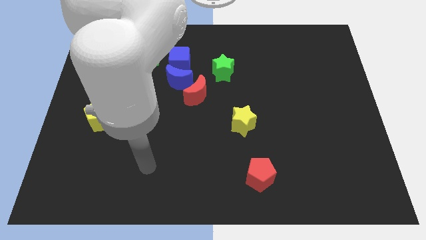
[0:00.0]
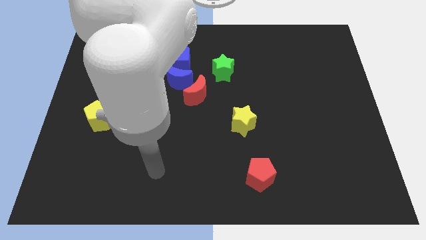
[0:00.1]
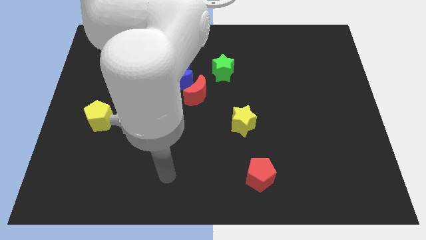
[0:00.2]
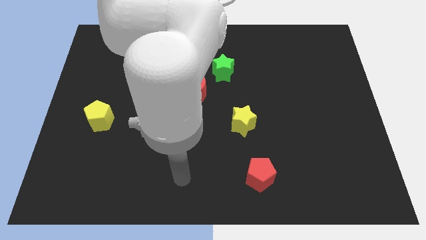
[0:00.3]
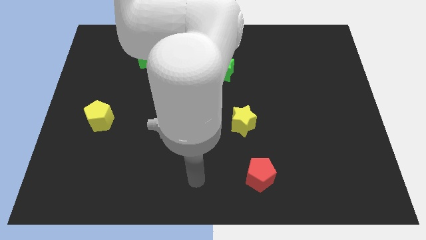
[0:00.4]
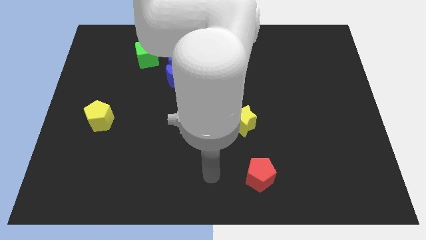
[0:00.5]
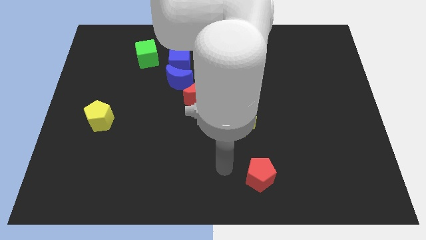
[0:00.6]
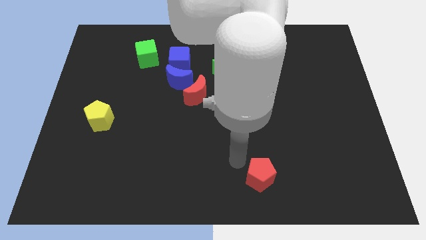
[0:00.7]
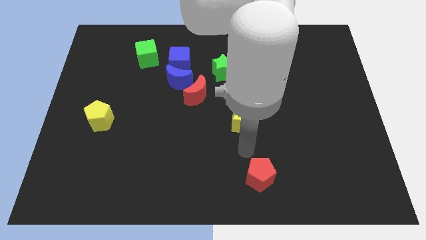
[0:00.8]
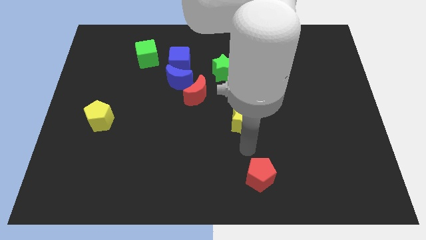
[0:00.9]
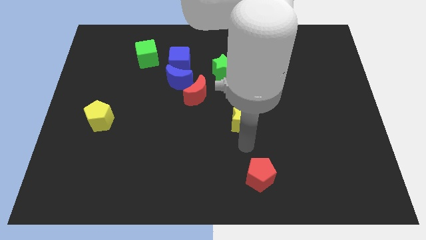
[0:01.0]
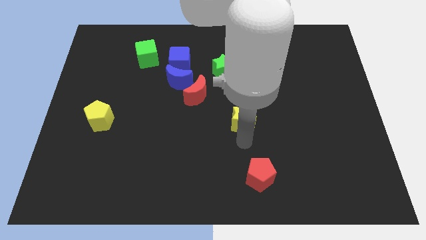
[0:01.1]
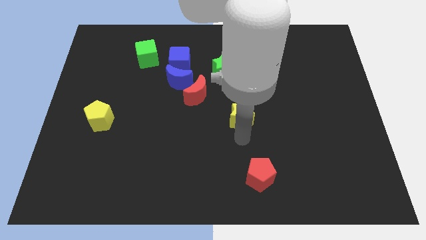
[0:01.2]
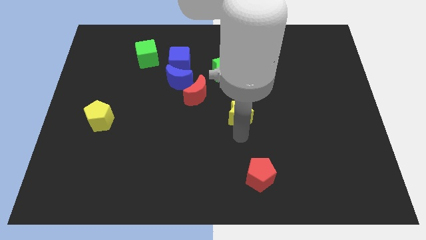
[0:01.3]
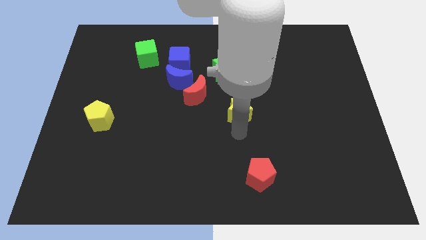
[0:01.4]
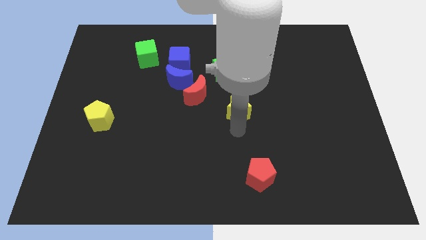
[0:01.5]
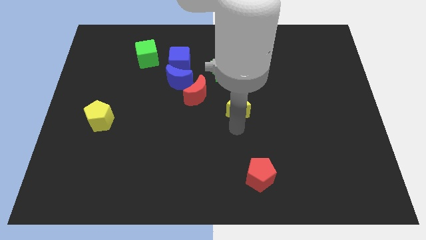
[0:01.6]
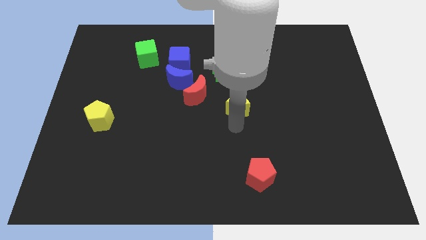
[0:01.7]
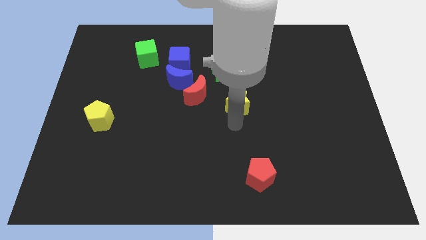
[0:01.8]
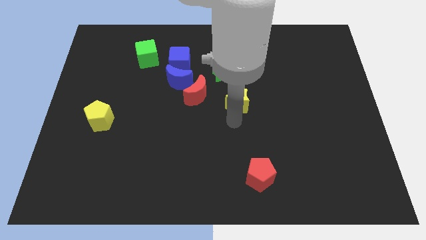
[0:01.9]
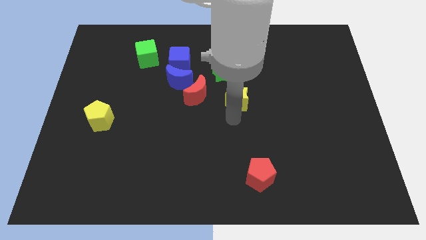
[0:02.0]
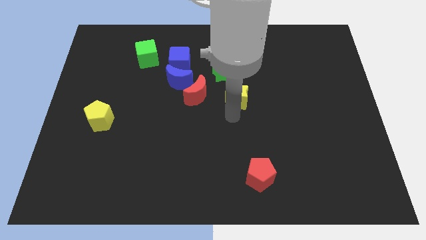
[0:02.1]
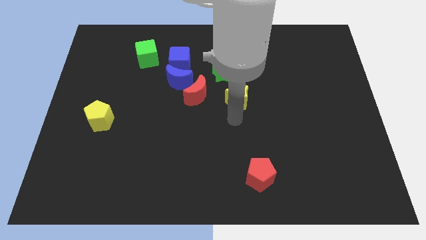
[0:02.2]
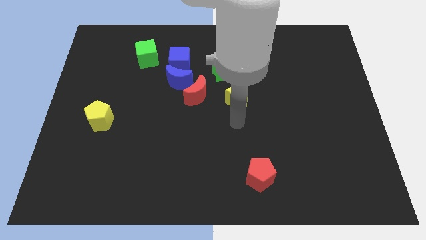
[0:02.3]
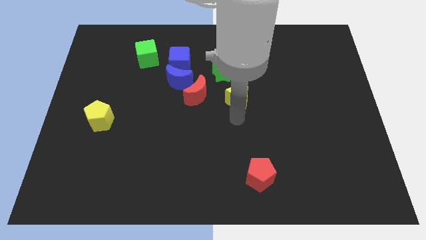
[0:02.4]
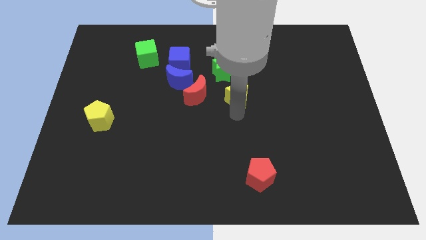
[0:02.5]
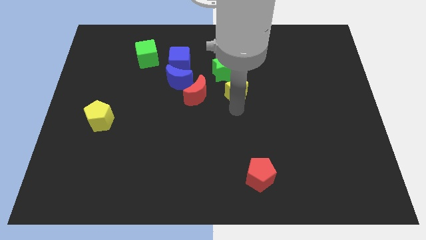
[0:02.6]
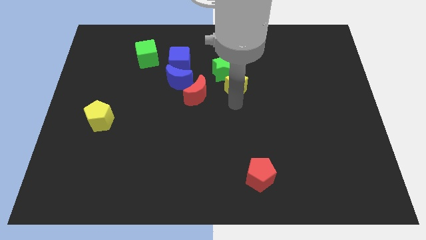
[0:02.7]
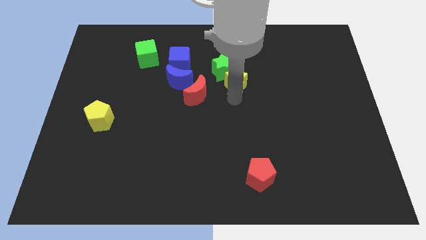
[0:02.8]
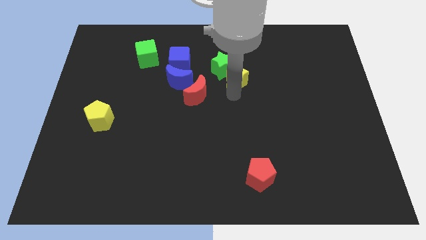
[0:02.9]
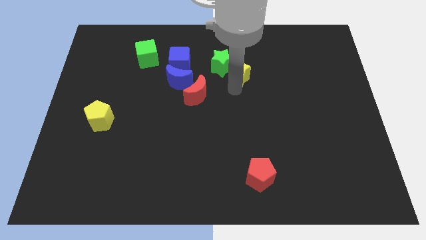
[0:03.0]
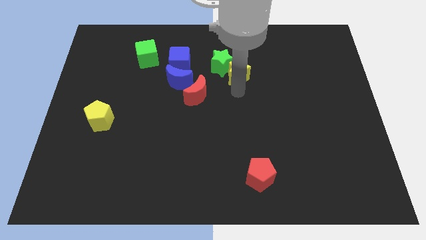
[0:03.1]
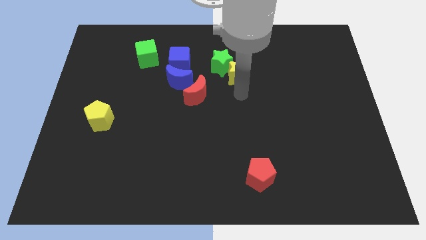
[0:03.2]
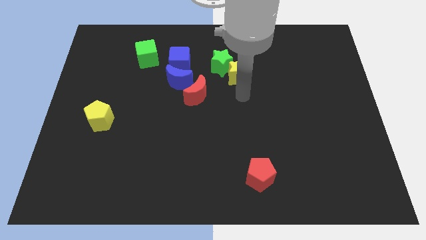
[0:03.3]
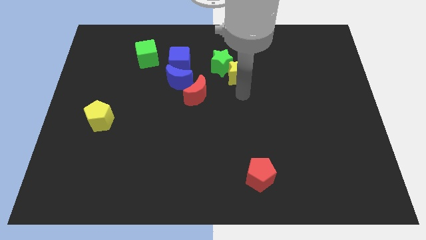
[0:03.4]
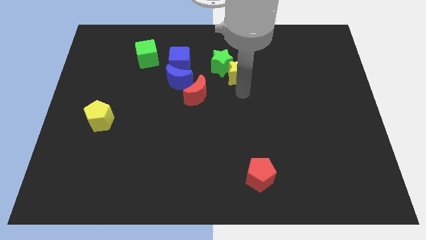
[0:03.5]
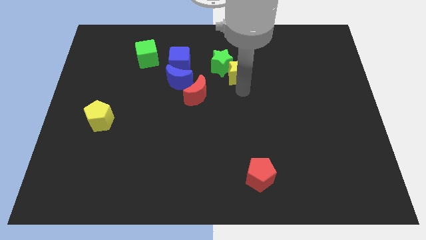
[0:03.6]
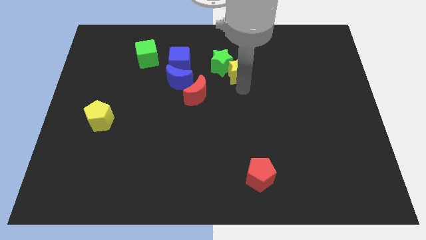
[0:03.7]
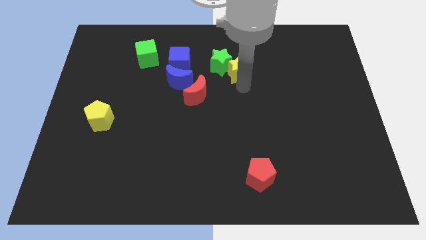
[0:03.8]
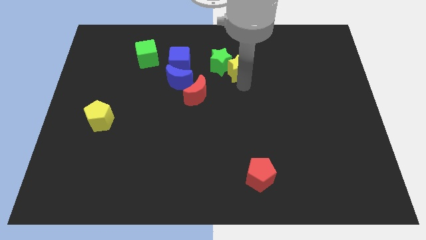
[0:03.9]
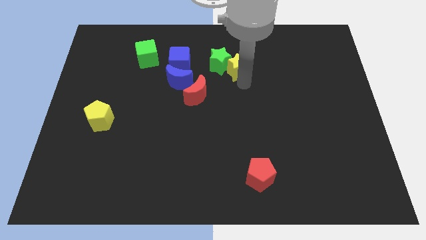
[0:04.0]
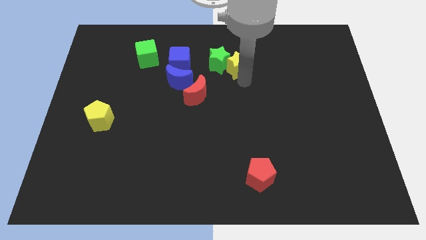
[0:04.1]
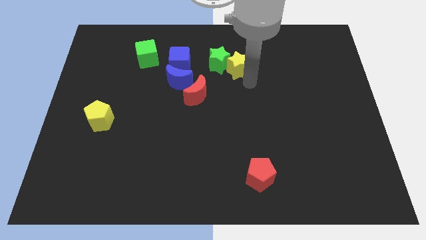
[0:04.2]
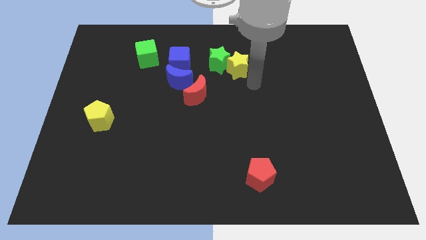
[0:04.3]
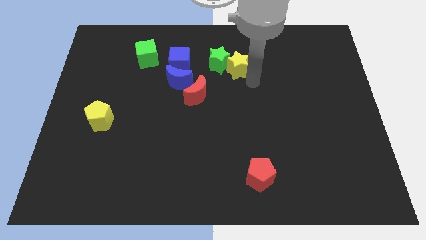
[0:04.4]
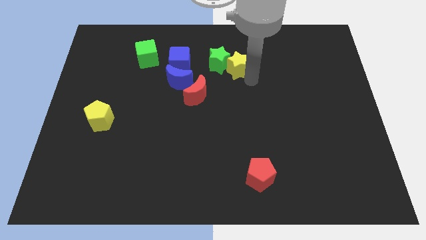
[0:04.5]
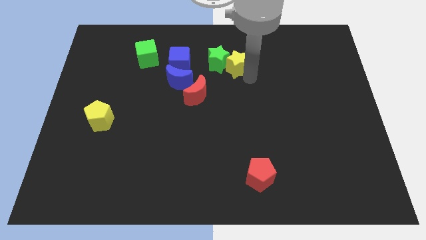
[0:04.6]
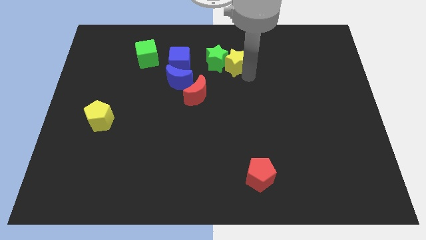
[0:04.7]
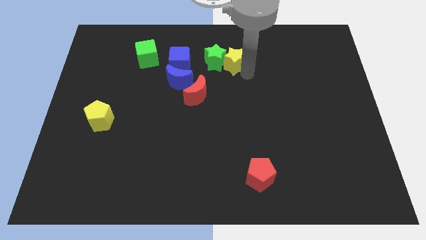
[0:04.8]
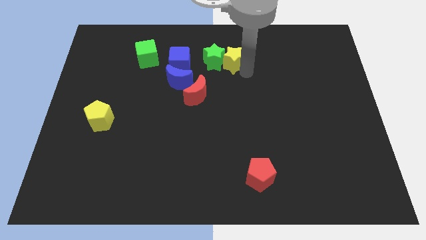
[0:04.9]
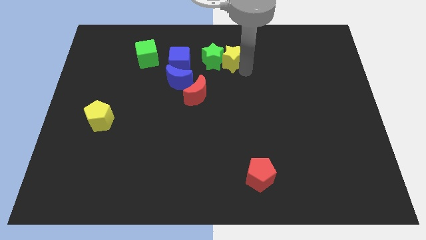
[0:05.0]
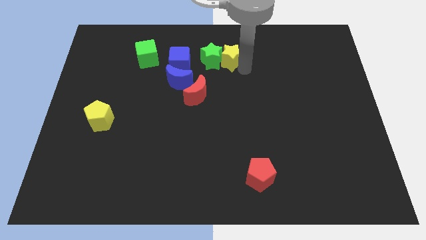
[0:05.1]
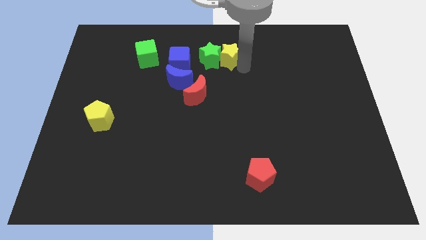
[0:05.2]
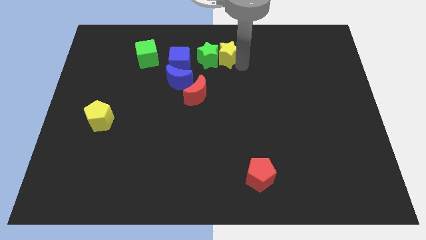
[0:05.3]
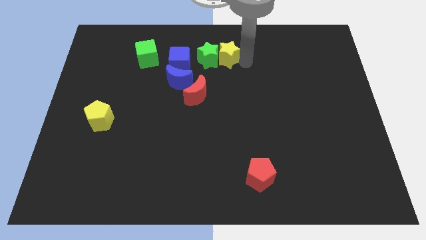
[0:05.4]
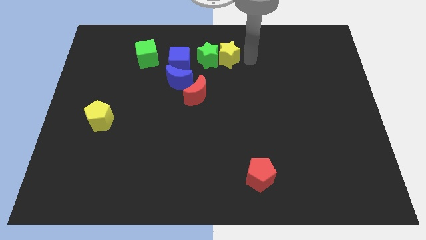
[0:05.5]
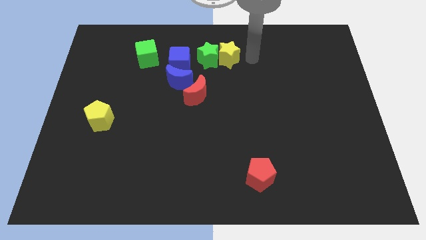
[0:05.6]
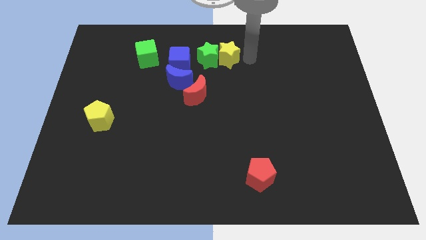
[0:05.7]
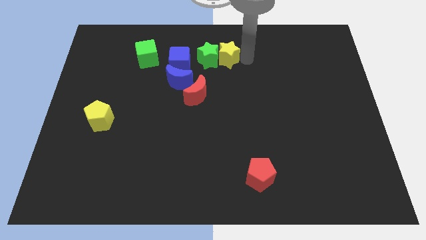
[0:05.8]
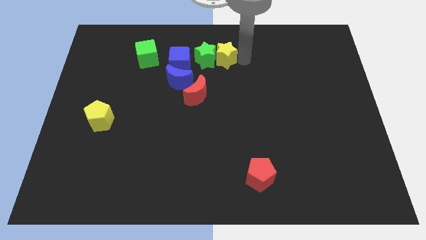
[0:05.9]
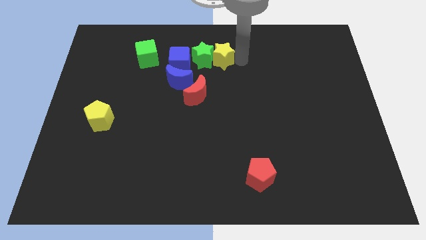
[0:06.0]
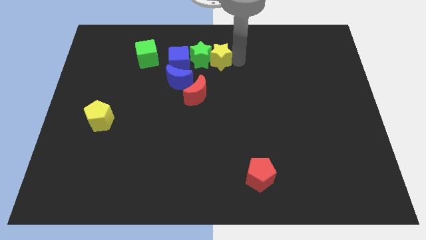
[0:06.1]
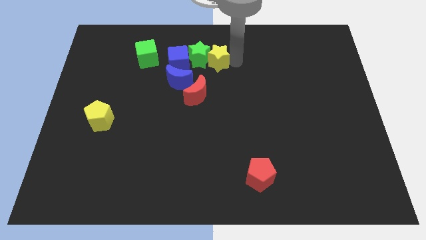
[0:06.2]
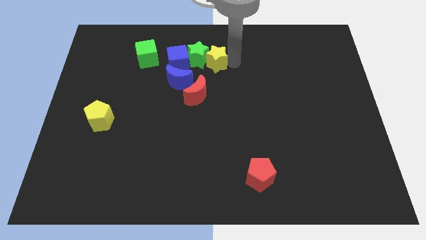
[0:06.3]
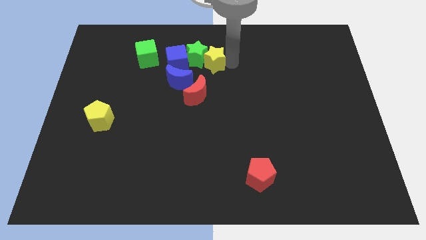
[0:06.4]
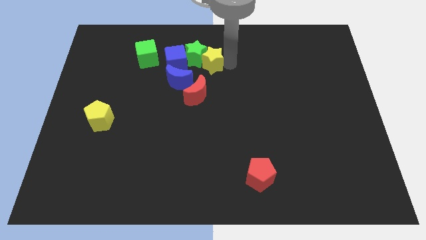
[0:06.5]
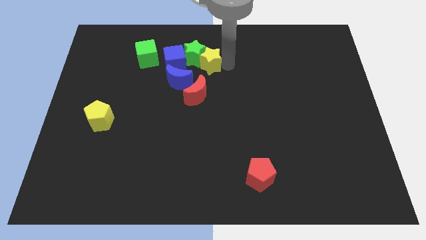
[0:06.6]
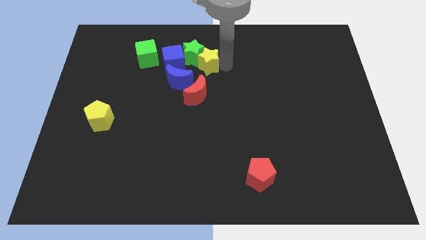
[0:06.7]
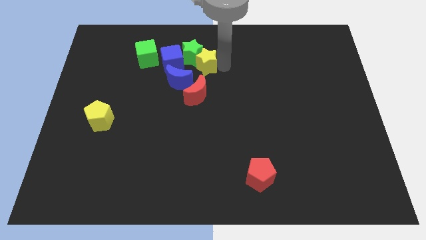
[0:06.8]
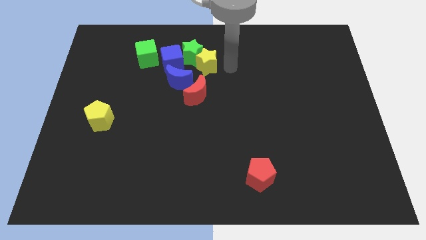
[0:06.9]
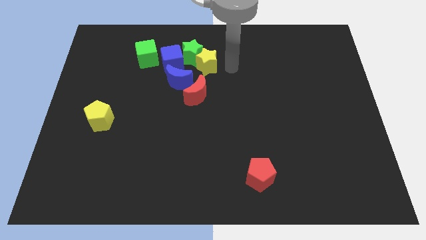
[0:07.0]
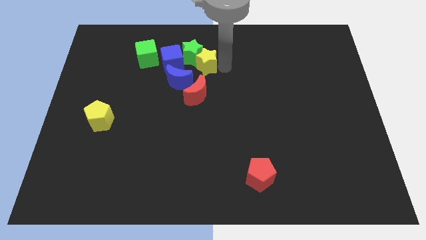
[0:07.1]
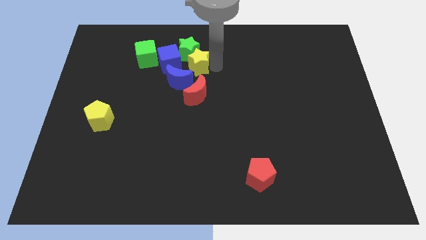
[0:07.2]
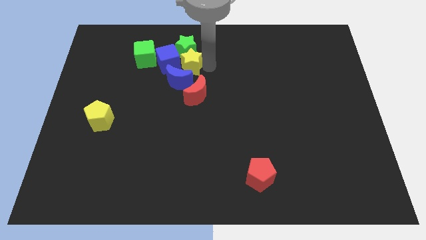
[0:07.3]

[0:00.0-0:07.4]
slide the yellow star close to the blue cube
